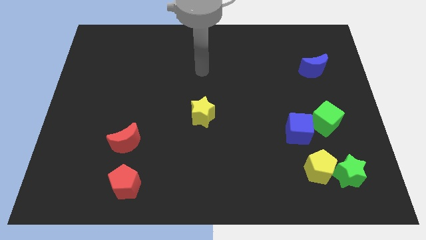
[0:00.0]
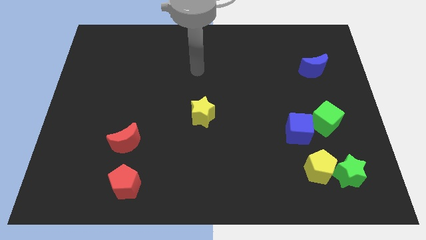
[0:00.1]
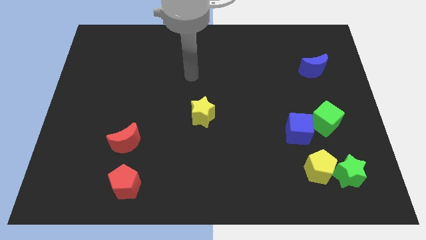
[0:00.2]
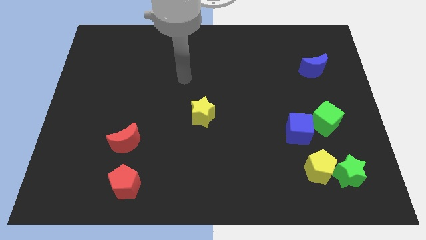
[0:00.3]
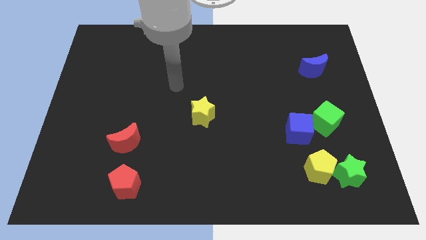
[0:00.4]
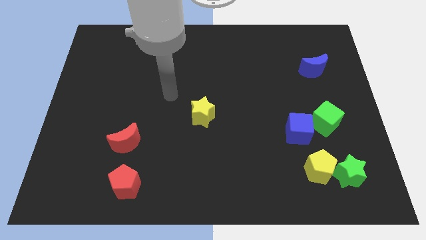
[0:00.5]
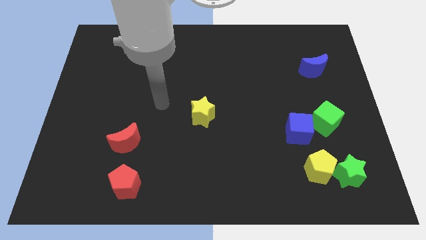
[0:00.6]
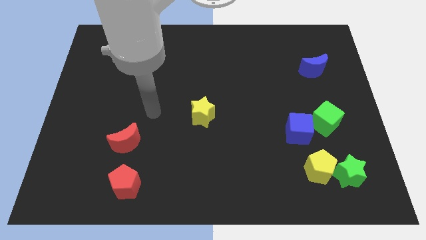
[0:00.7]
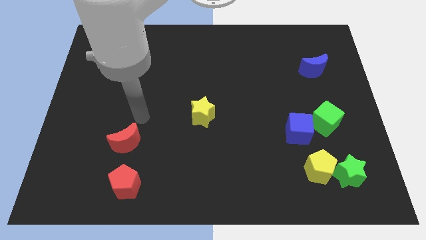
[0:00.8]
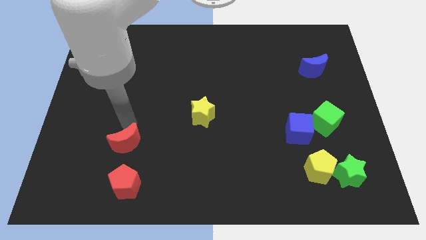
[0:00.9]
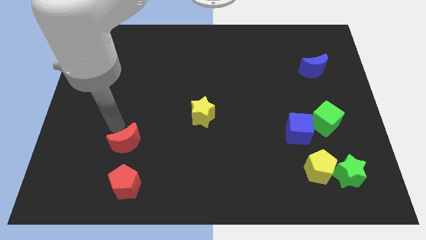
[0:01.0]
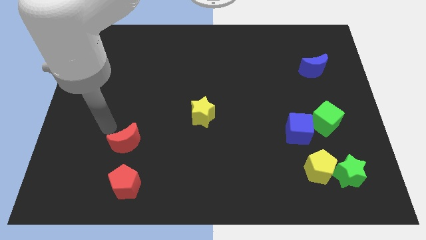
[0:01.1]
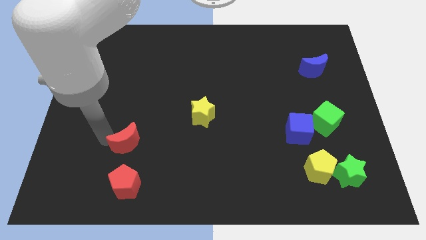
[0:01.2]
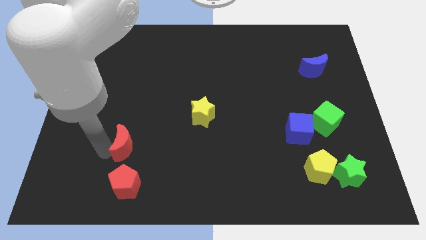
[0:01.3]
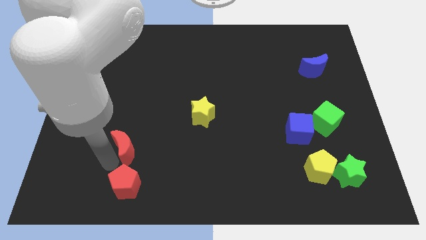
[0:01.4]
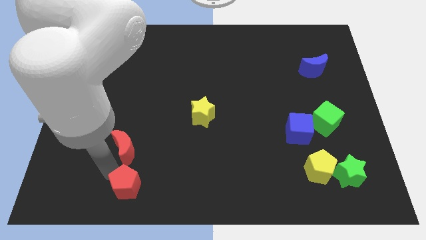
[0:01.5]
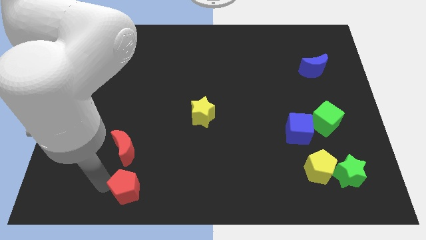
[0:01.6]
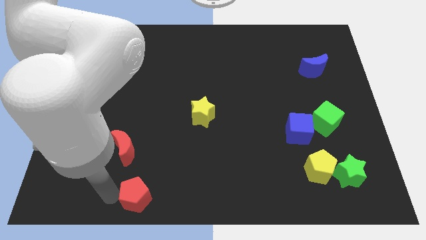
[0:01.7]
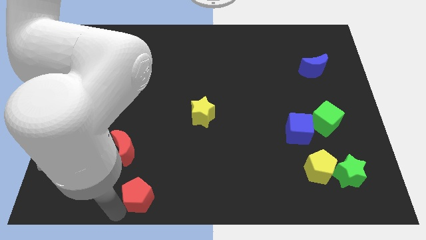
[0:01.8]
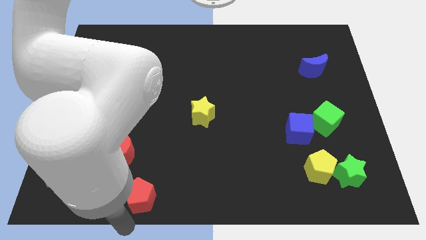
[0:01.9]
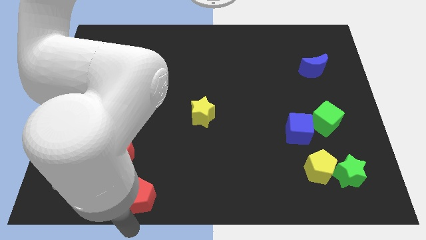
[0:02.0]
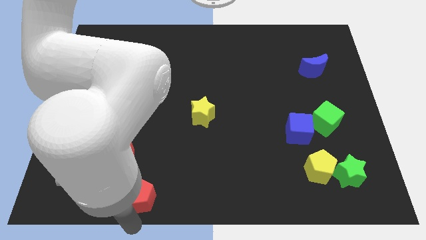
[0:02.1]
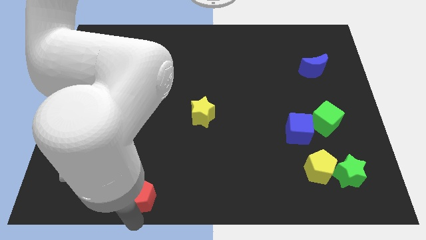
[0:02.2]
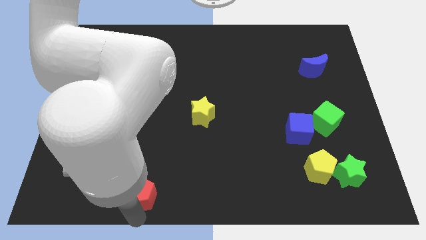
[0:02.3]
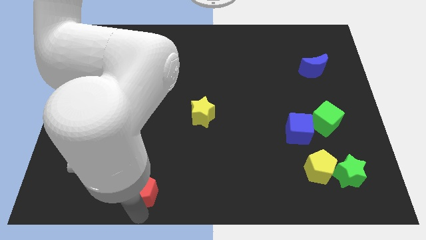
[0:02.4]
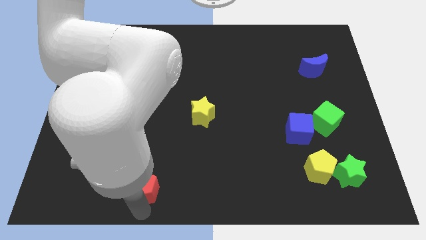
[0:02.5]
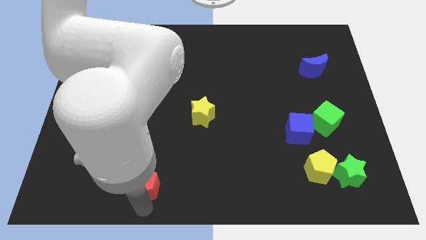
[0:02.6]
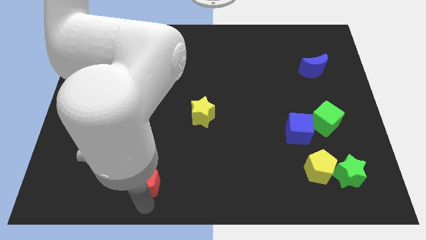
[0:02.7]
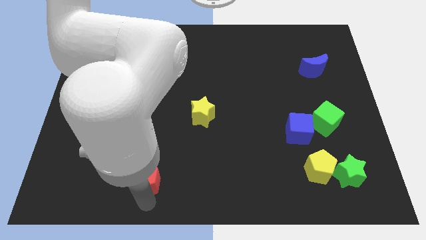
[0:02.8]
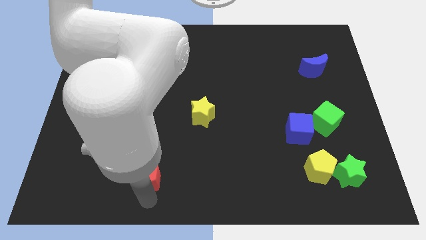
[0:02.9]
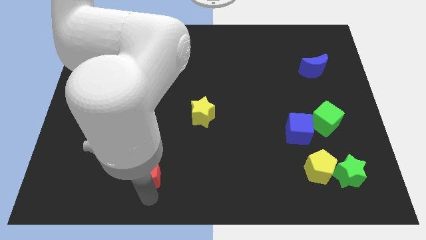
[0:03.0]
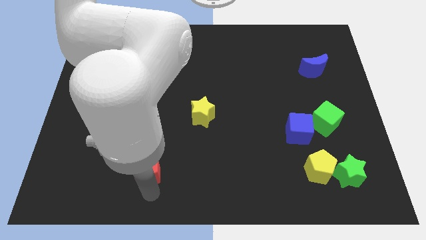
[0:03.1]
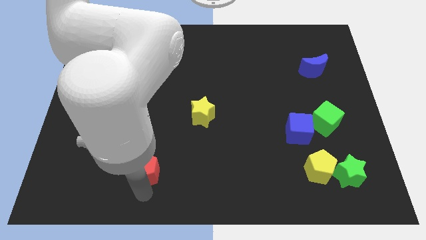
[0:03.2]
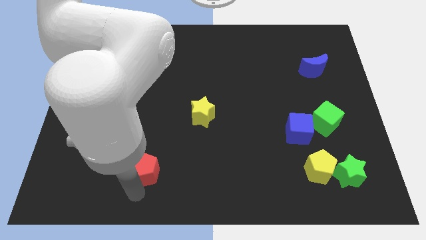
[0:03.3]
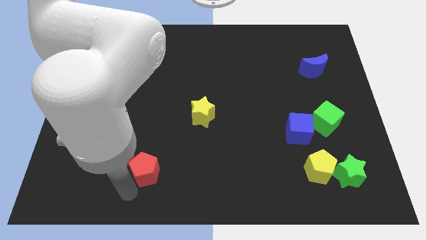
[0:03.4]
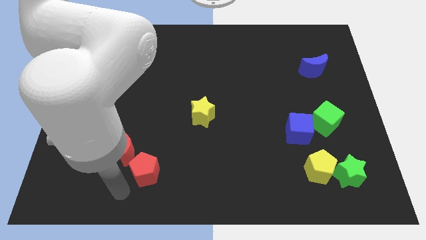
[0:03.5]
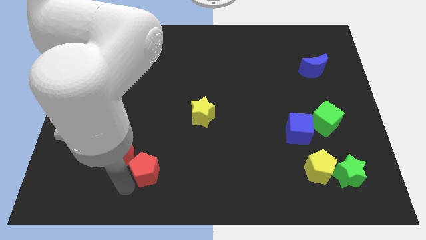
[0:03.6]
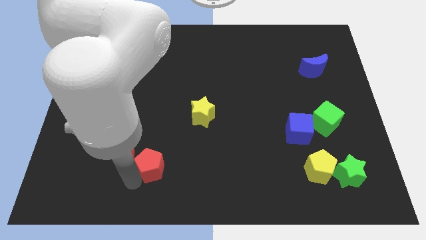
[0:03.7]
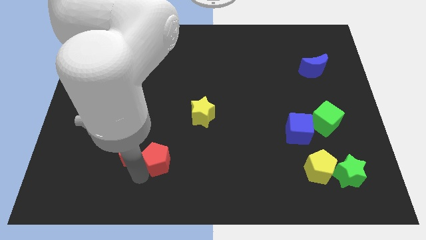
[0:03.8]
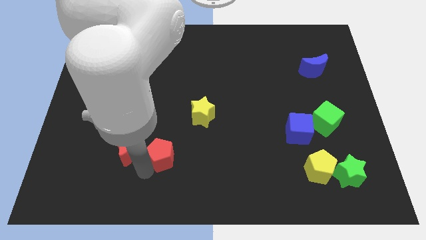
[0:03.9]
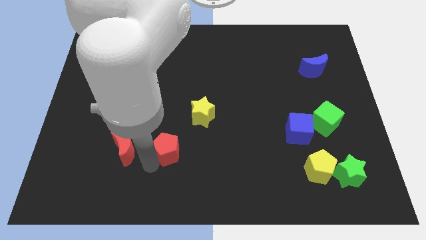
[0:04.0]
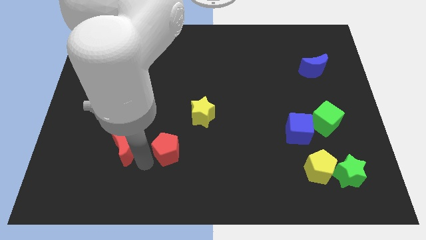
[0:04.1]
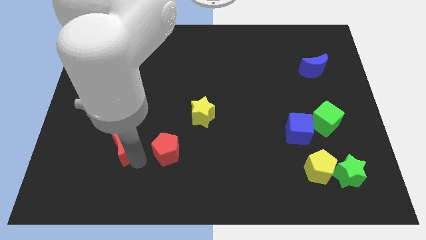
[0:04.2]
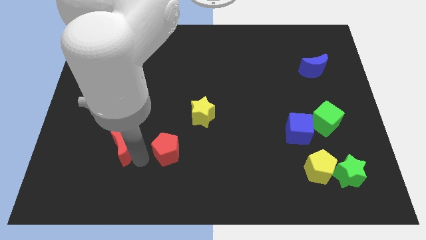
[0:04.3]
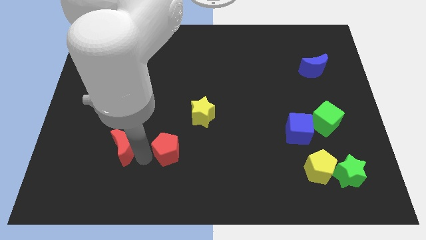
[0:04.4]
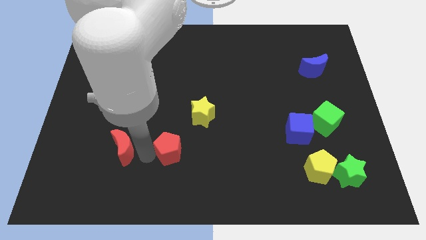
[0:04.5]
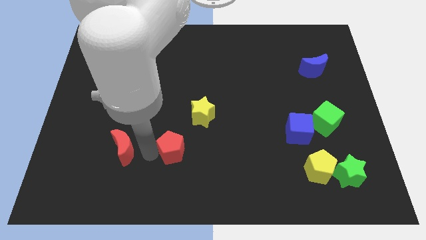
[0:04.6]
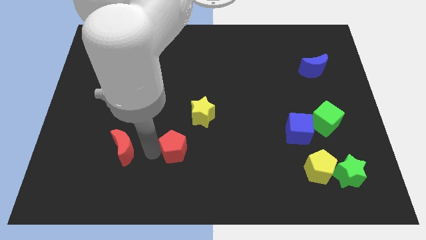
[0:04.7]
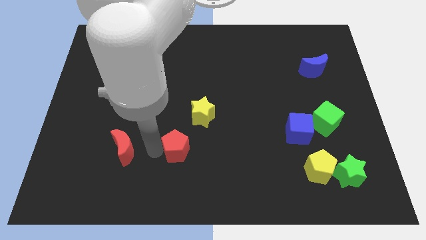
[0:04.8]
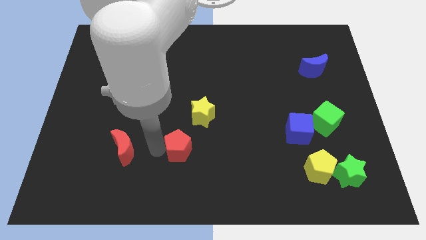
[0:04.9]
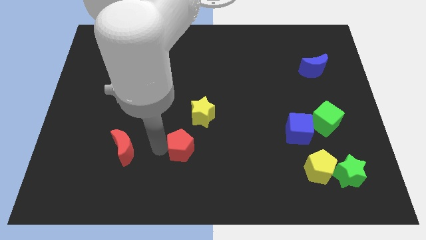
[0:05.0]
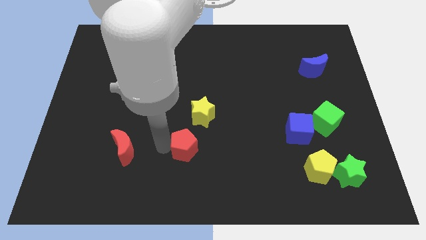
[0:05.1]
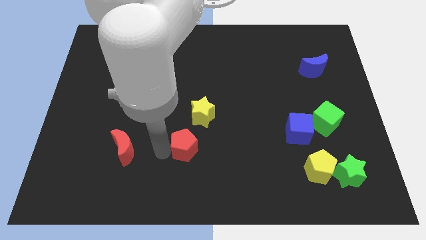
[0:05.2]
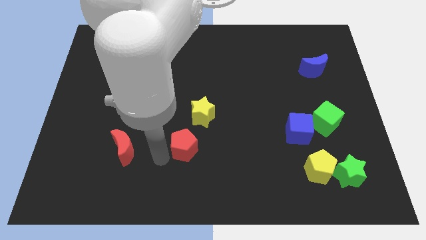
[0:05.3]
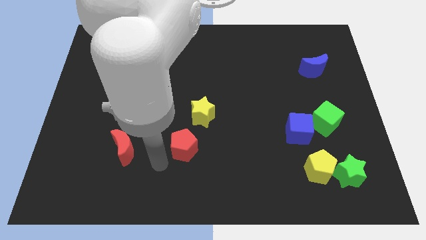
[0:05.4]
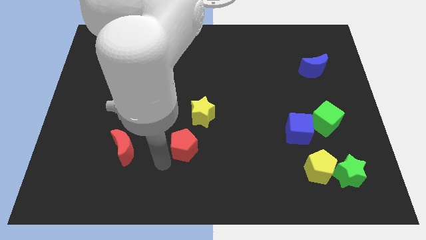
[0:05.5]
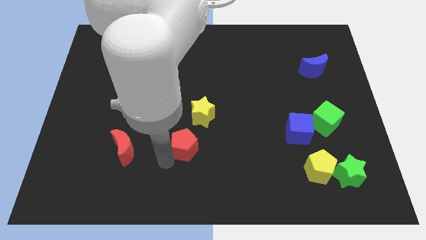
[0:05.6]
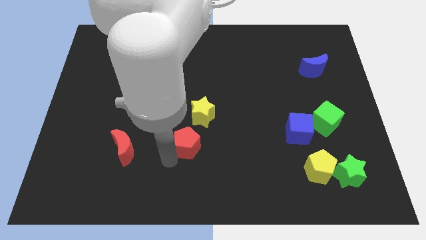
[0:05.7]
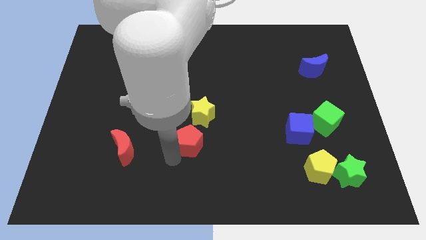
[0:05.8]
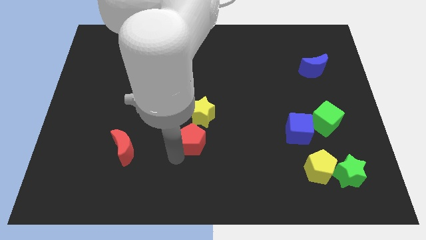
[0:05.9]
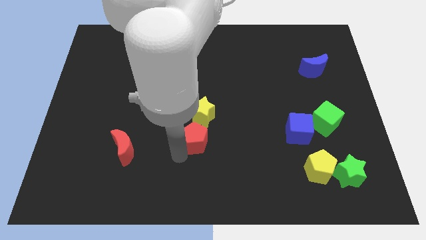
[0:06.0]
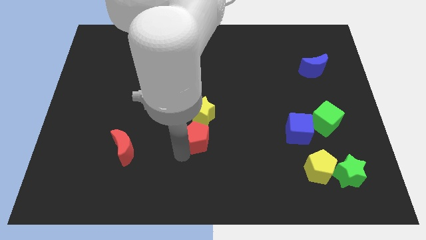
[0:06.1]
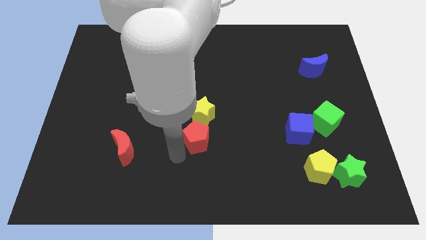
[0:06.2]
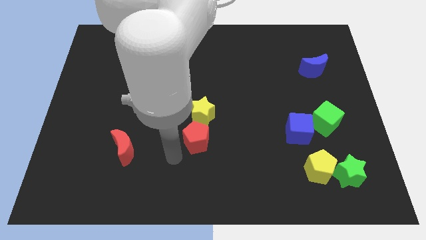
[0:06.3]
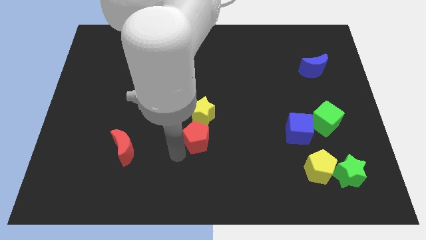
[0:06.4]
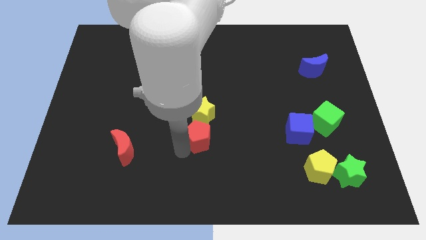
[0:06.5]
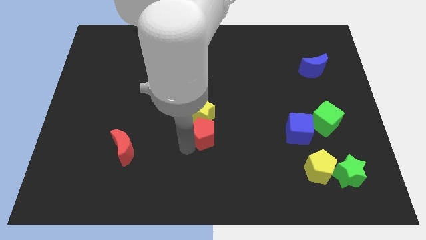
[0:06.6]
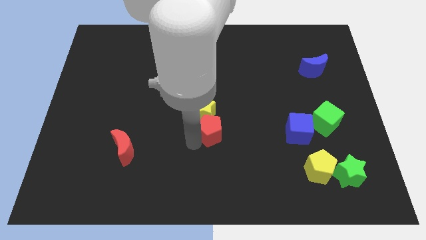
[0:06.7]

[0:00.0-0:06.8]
move the red pentagon diagonally upwards and to the right

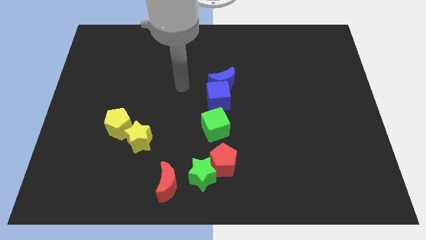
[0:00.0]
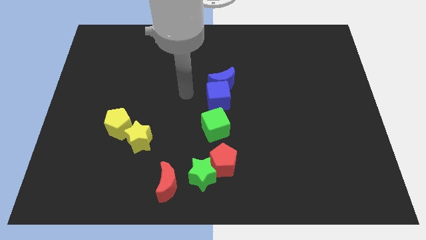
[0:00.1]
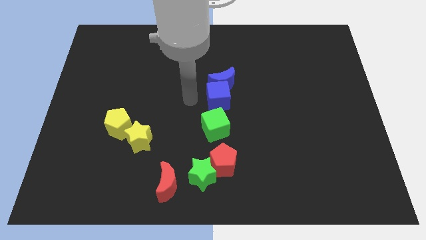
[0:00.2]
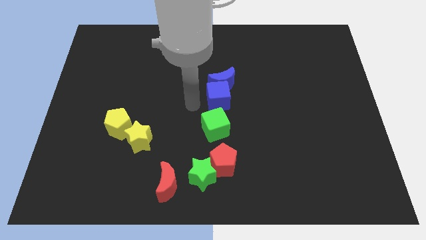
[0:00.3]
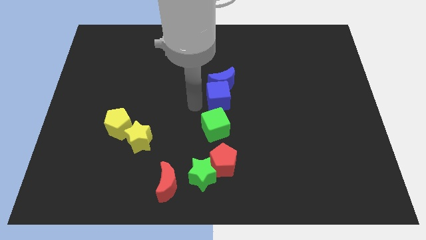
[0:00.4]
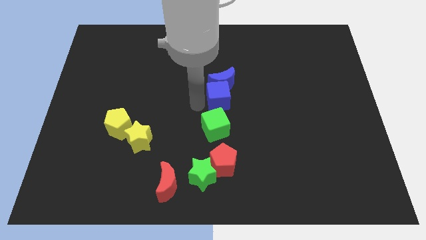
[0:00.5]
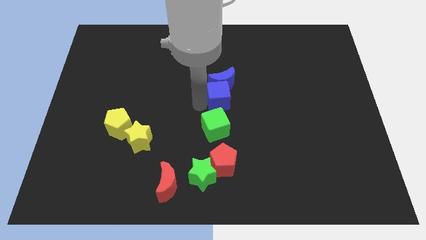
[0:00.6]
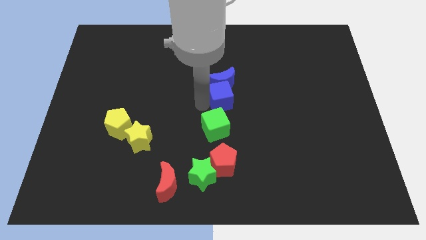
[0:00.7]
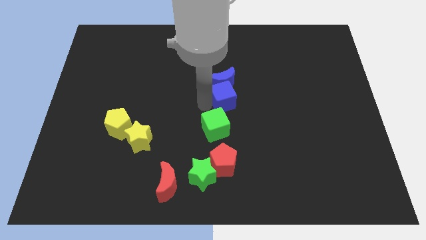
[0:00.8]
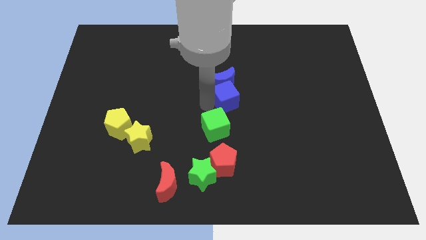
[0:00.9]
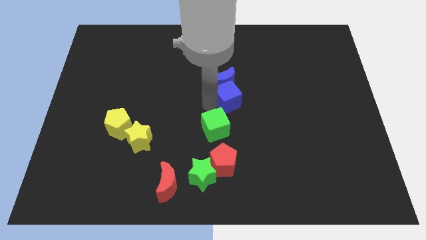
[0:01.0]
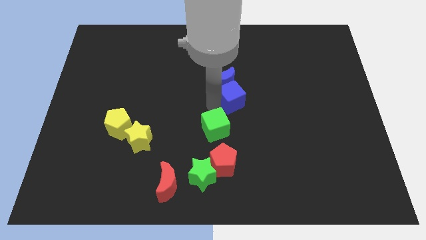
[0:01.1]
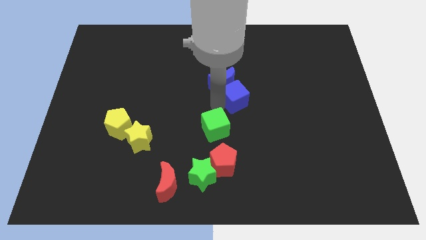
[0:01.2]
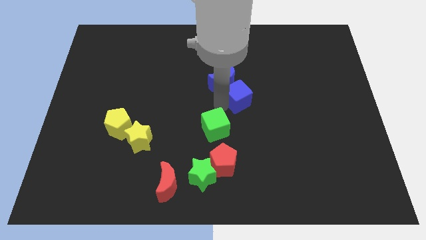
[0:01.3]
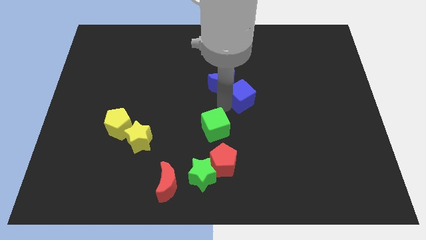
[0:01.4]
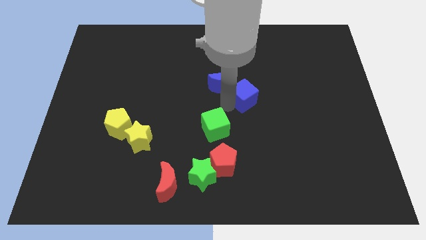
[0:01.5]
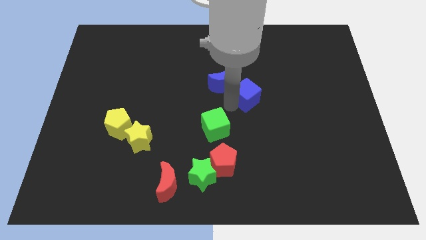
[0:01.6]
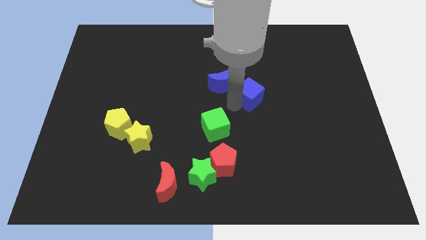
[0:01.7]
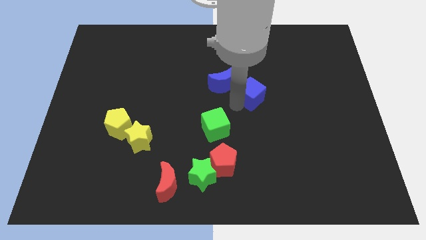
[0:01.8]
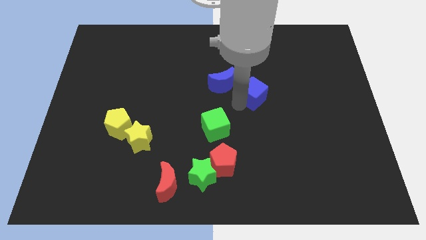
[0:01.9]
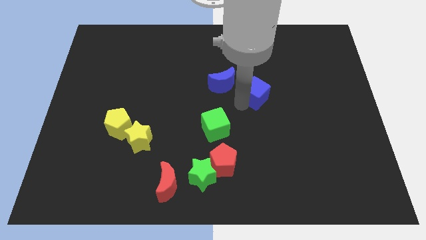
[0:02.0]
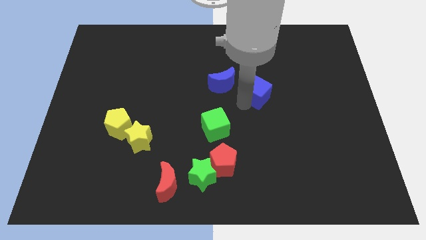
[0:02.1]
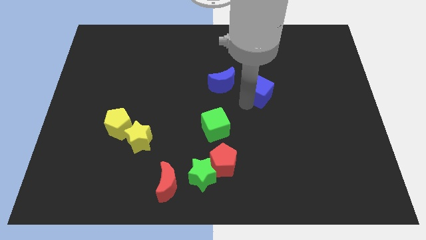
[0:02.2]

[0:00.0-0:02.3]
move the blue cube slightly up and then right
